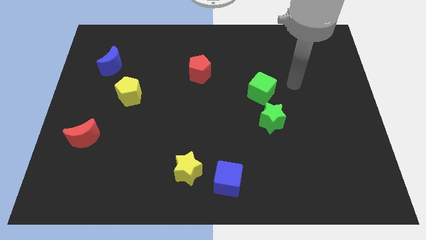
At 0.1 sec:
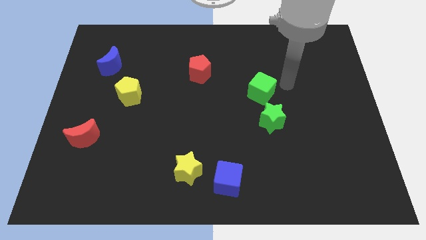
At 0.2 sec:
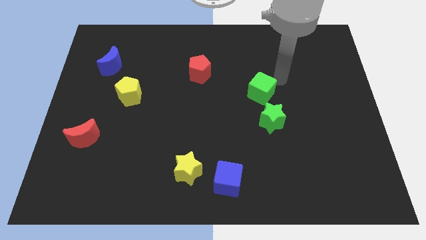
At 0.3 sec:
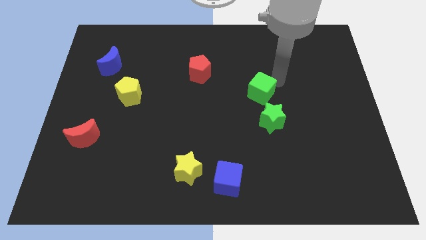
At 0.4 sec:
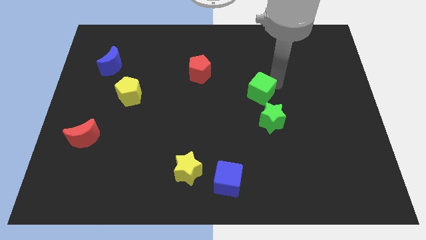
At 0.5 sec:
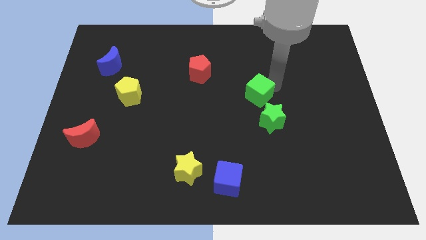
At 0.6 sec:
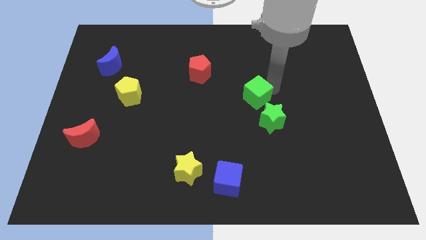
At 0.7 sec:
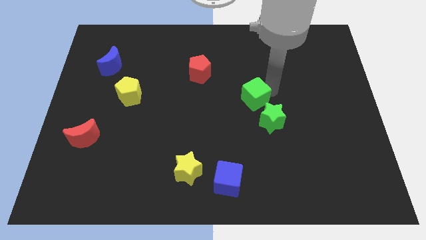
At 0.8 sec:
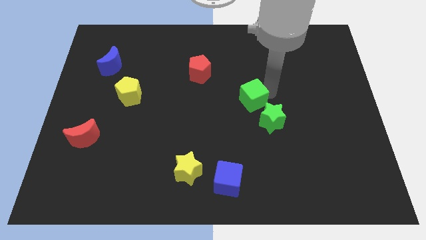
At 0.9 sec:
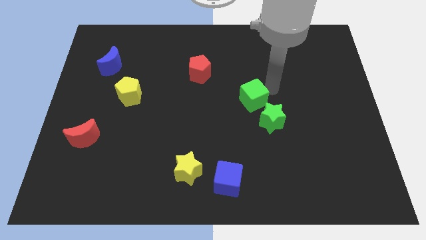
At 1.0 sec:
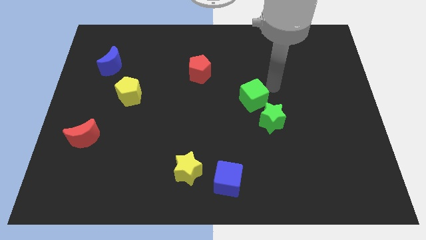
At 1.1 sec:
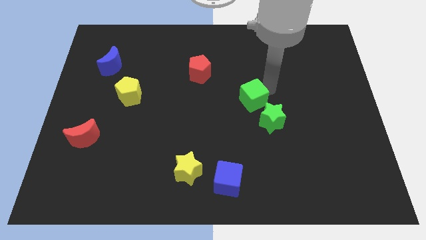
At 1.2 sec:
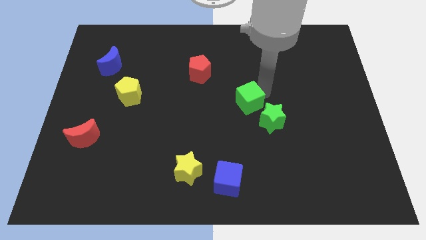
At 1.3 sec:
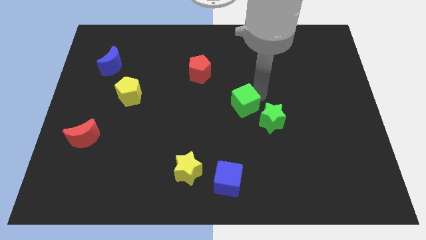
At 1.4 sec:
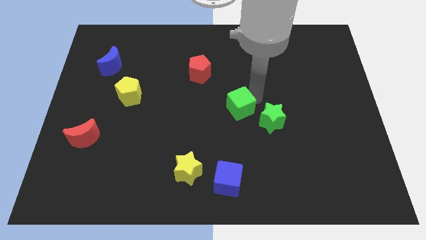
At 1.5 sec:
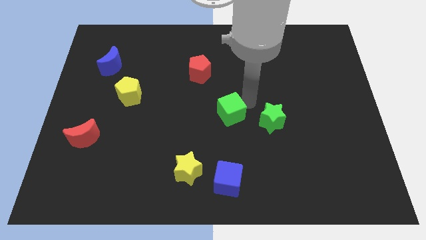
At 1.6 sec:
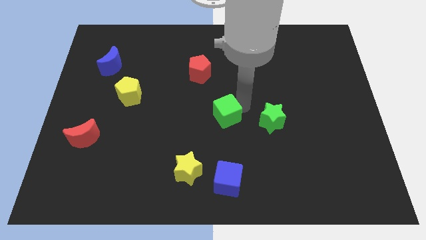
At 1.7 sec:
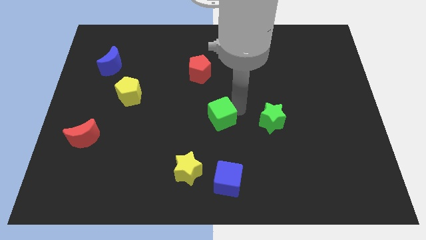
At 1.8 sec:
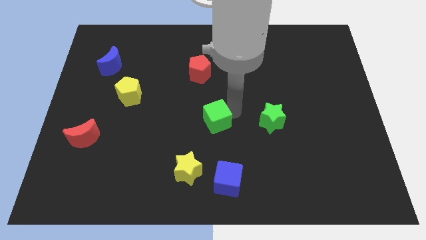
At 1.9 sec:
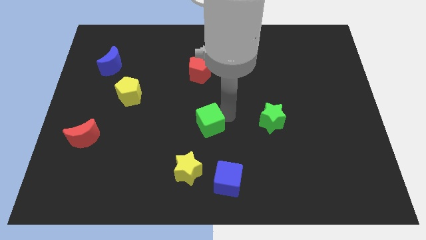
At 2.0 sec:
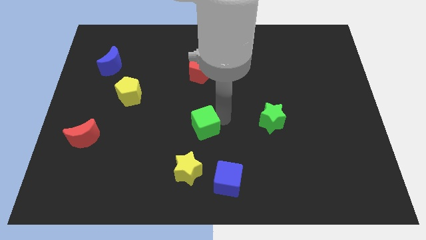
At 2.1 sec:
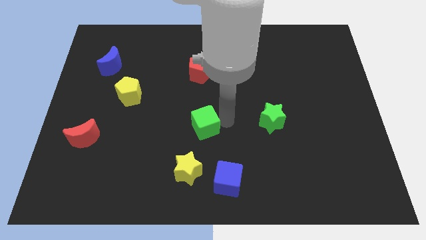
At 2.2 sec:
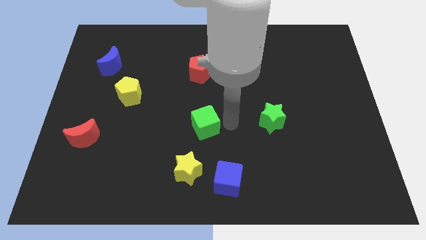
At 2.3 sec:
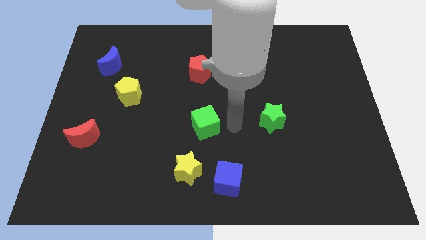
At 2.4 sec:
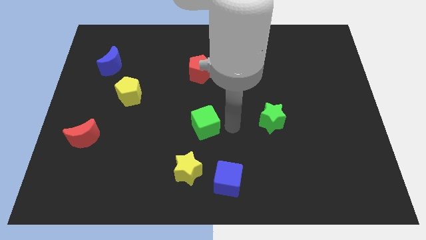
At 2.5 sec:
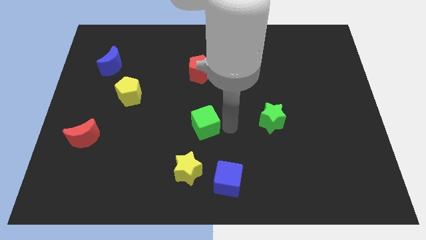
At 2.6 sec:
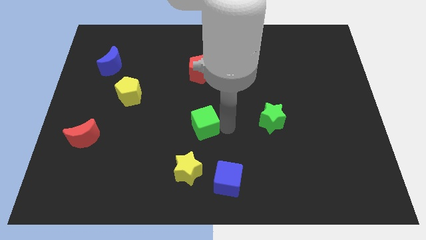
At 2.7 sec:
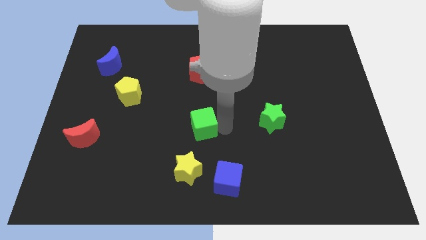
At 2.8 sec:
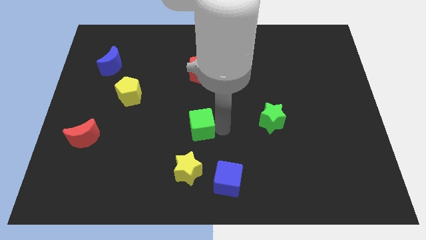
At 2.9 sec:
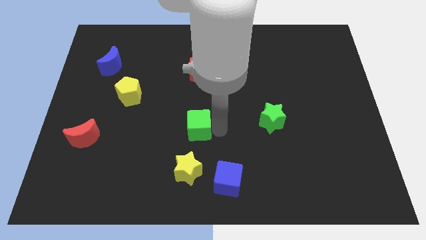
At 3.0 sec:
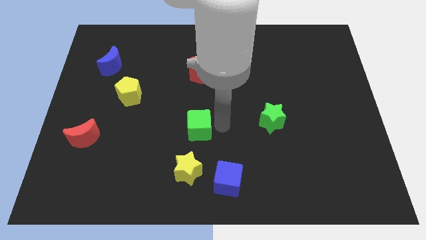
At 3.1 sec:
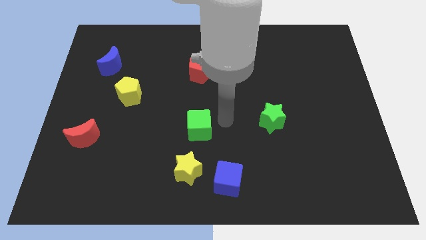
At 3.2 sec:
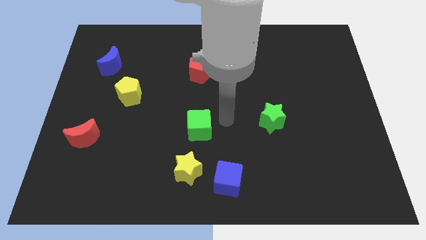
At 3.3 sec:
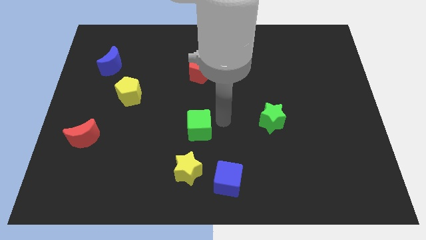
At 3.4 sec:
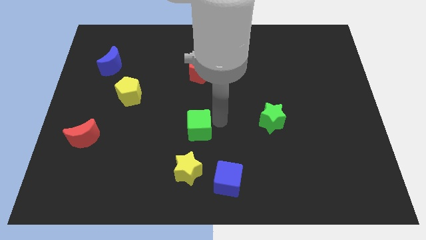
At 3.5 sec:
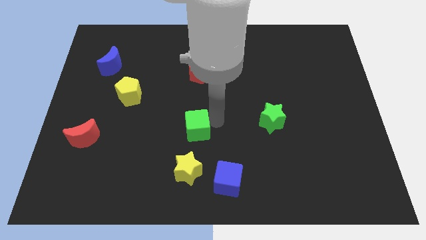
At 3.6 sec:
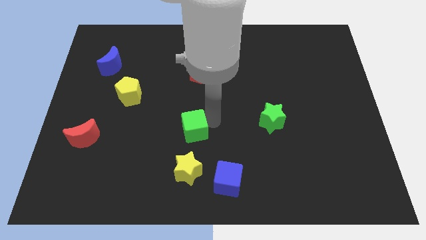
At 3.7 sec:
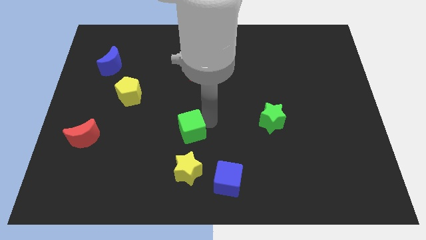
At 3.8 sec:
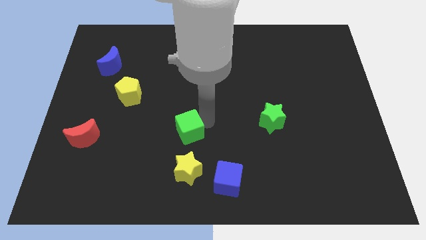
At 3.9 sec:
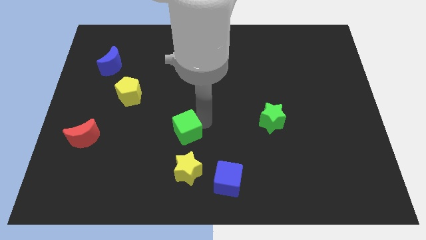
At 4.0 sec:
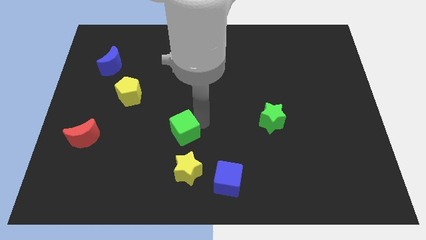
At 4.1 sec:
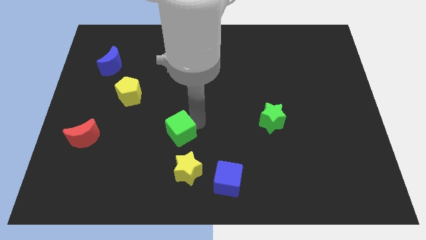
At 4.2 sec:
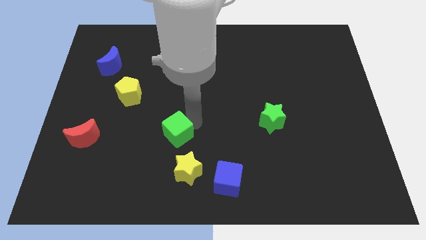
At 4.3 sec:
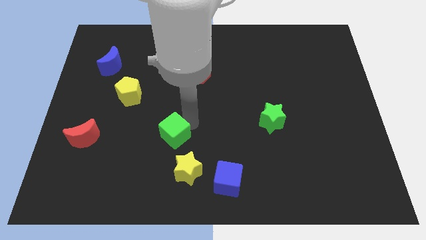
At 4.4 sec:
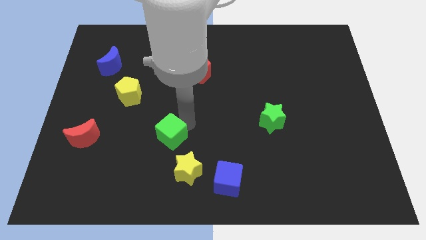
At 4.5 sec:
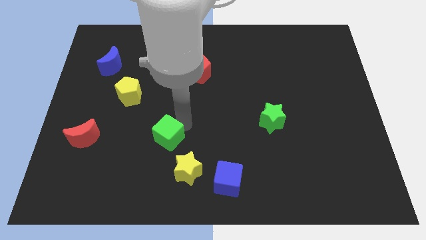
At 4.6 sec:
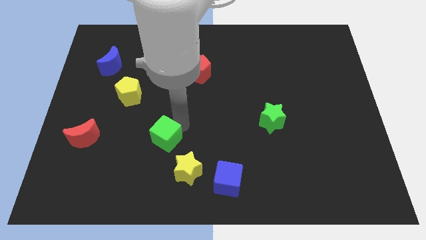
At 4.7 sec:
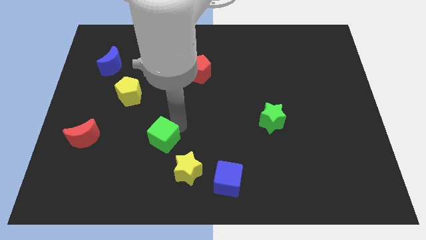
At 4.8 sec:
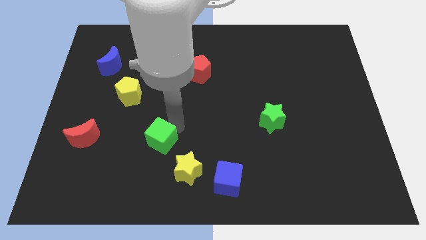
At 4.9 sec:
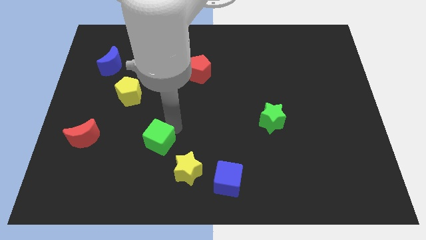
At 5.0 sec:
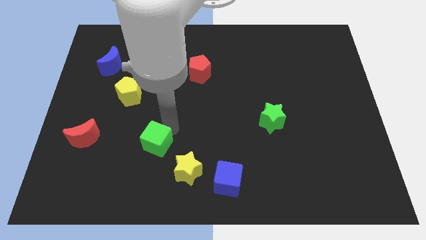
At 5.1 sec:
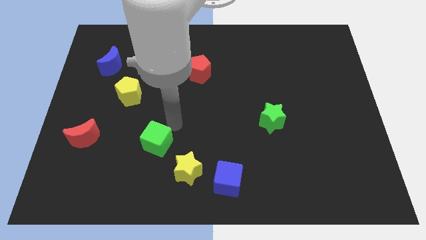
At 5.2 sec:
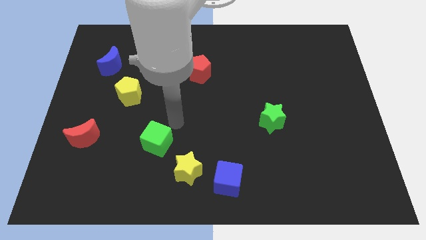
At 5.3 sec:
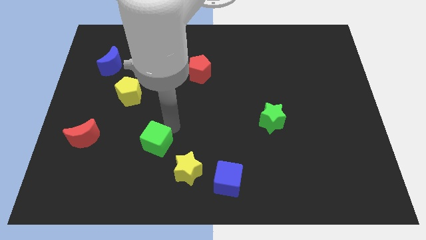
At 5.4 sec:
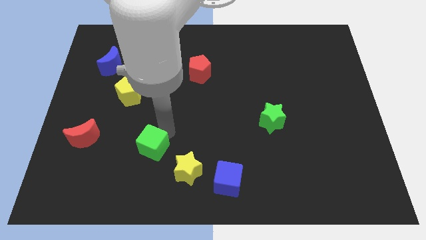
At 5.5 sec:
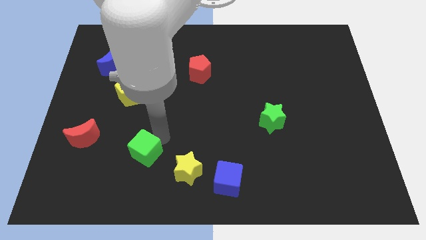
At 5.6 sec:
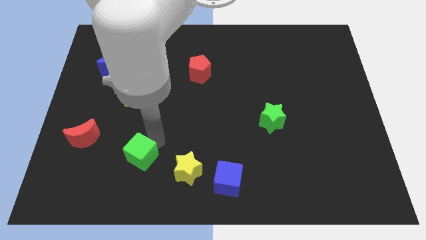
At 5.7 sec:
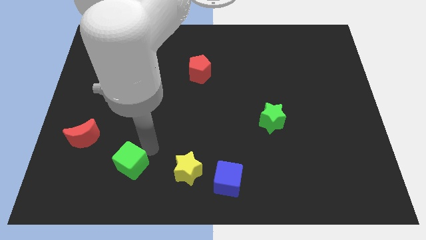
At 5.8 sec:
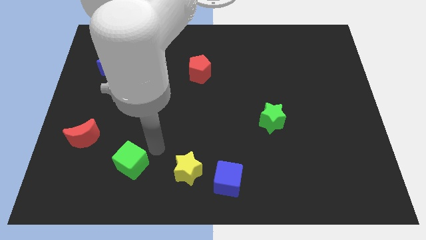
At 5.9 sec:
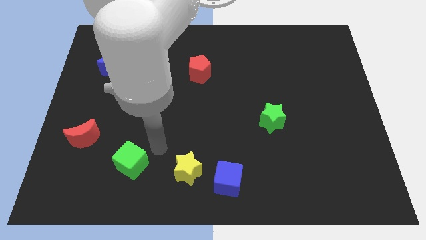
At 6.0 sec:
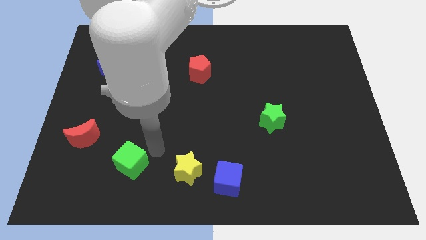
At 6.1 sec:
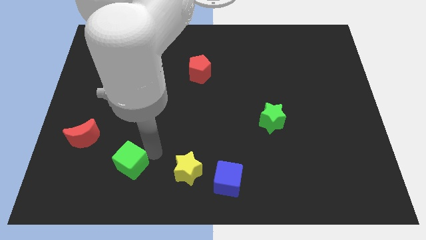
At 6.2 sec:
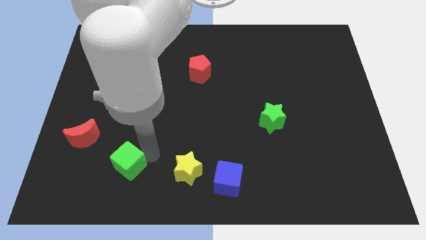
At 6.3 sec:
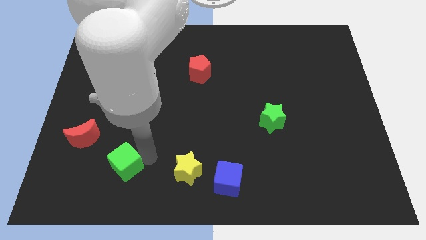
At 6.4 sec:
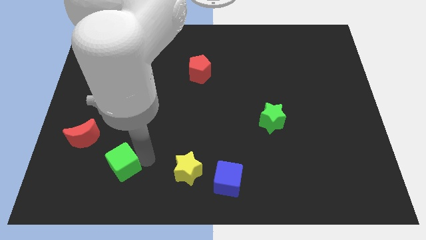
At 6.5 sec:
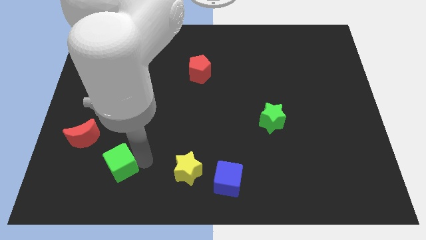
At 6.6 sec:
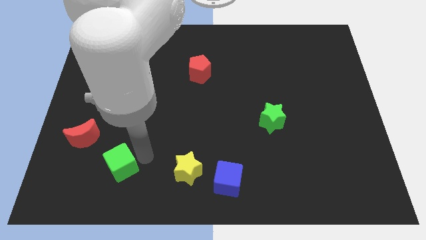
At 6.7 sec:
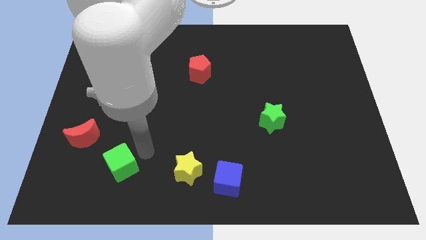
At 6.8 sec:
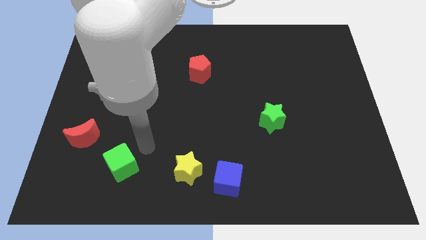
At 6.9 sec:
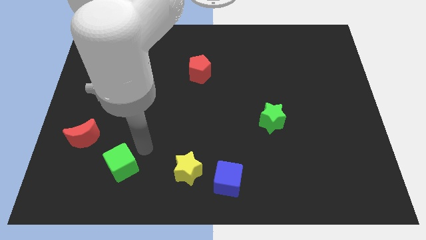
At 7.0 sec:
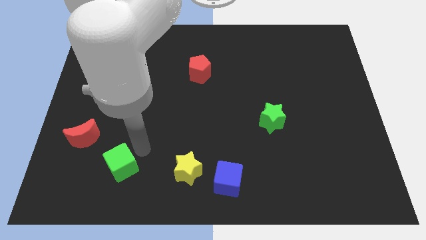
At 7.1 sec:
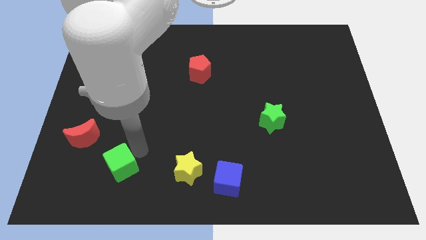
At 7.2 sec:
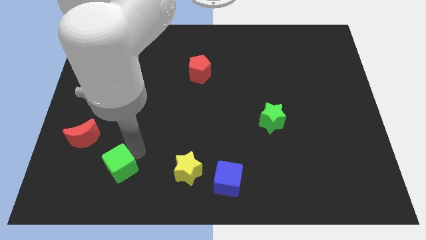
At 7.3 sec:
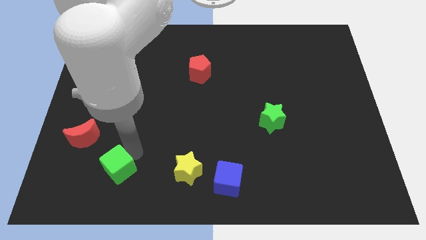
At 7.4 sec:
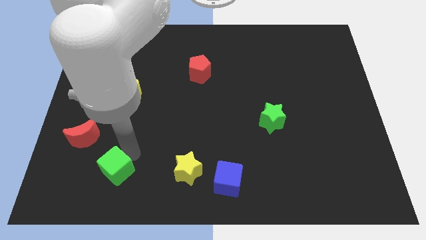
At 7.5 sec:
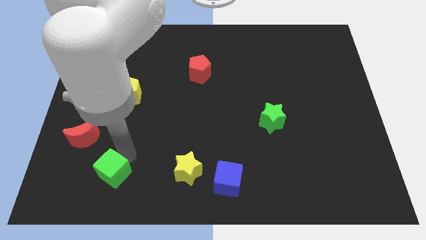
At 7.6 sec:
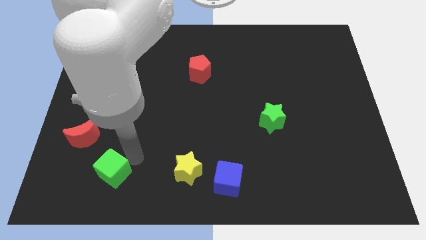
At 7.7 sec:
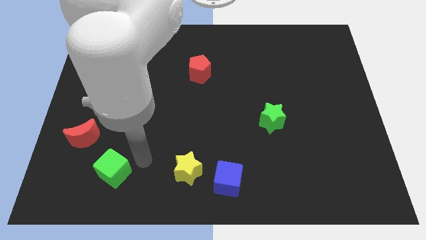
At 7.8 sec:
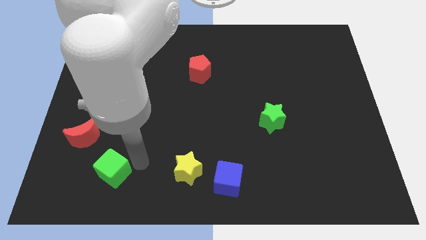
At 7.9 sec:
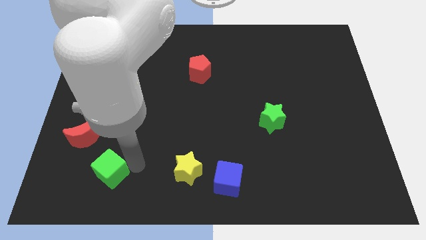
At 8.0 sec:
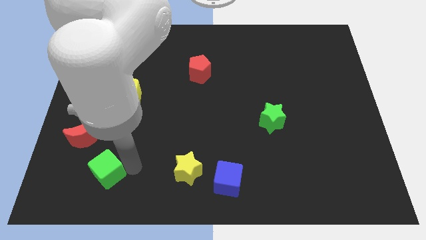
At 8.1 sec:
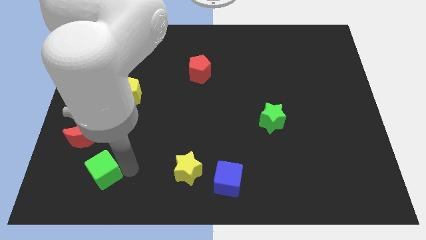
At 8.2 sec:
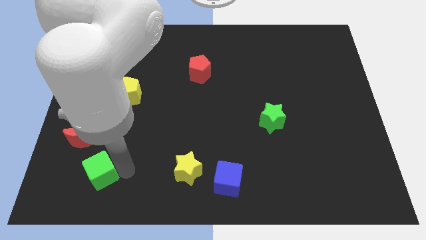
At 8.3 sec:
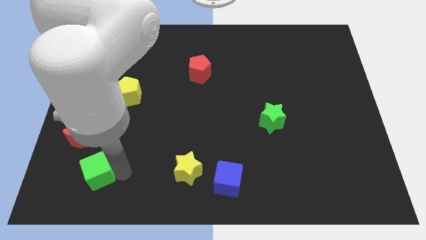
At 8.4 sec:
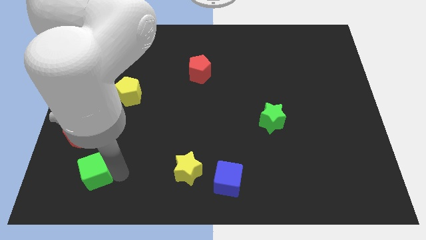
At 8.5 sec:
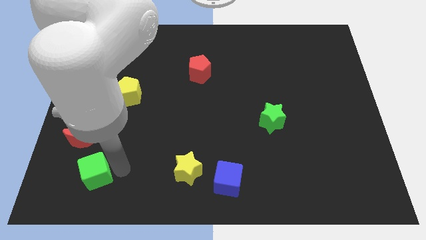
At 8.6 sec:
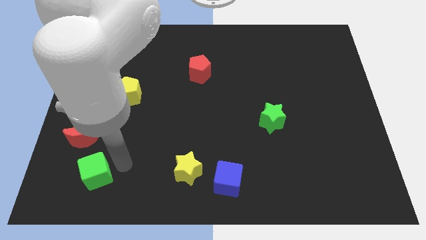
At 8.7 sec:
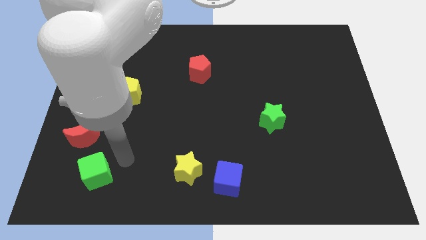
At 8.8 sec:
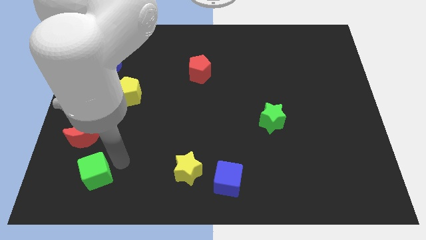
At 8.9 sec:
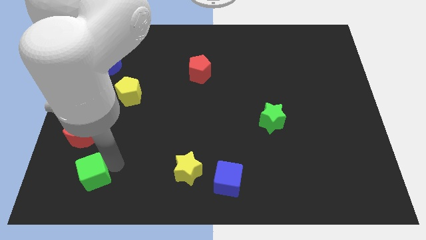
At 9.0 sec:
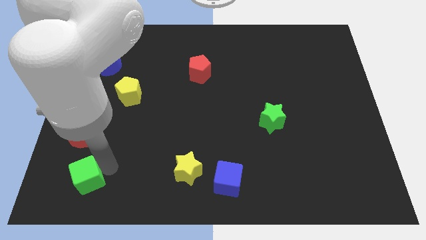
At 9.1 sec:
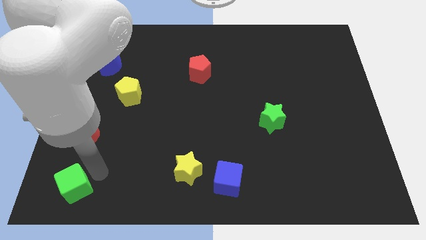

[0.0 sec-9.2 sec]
push the green cube to the lower left corner
